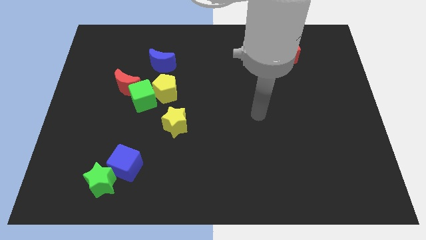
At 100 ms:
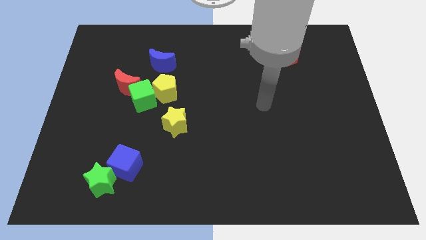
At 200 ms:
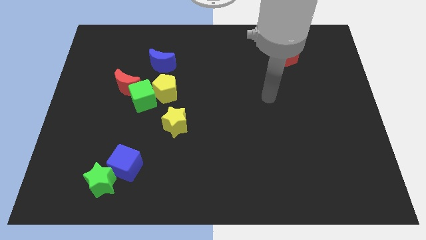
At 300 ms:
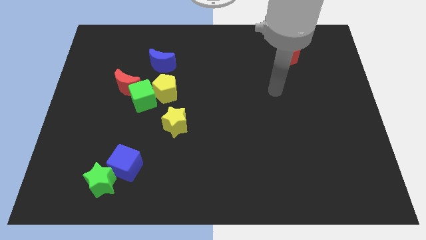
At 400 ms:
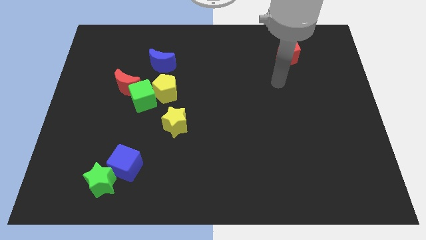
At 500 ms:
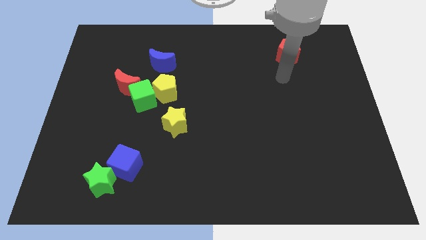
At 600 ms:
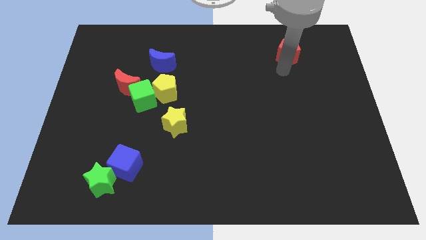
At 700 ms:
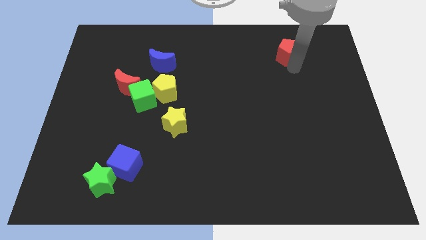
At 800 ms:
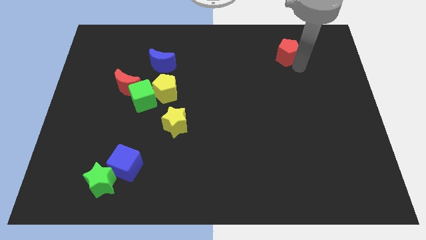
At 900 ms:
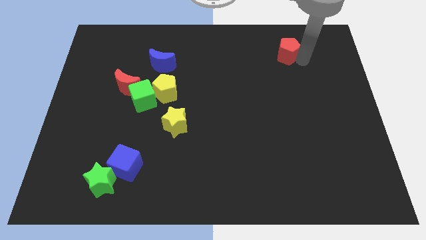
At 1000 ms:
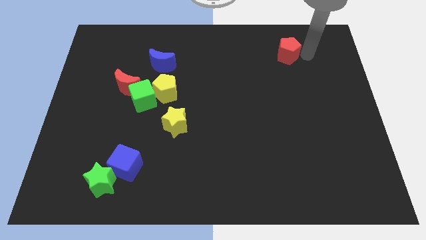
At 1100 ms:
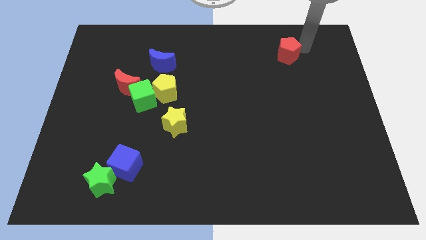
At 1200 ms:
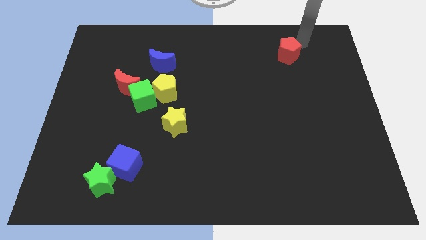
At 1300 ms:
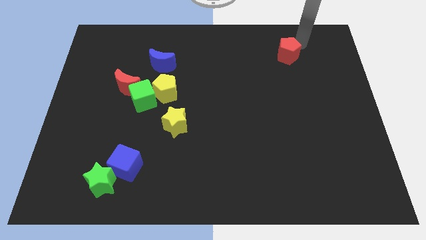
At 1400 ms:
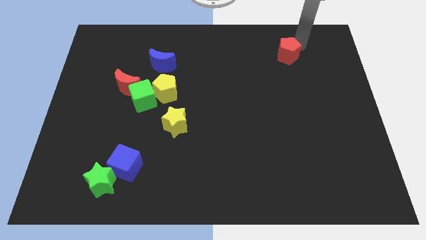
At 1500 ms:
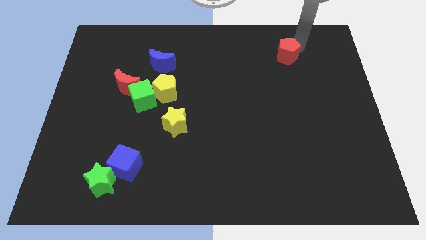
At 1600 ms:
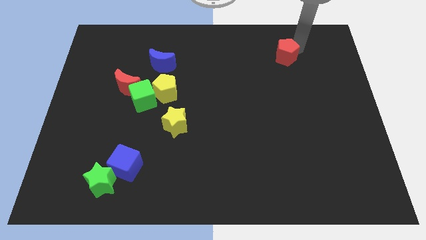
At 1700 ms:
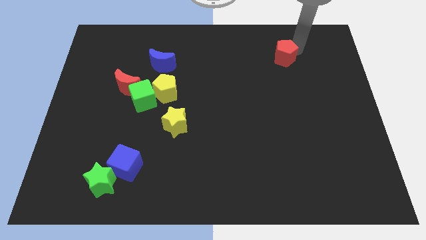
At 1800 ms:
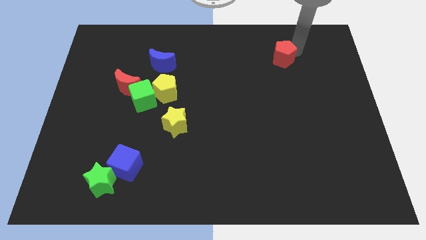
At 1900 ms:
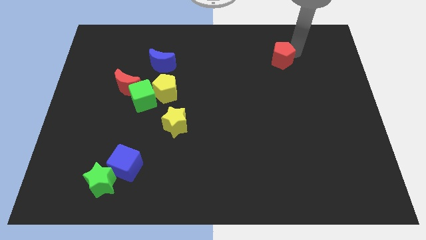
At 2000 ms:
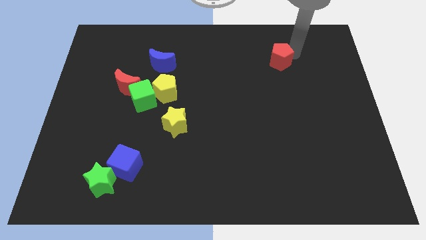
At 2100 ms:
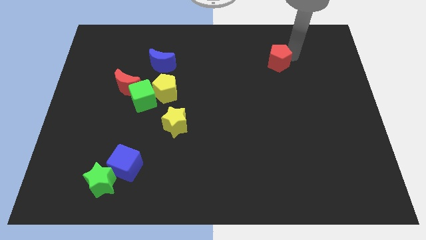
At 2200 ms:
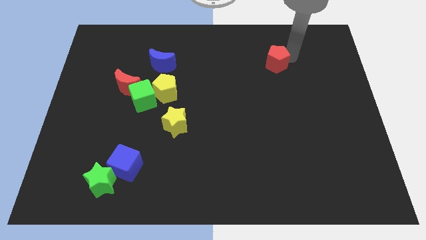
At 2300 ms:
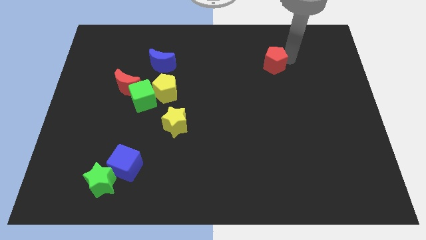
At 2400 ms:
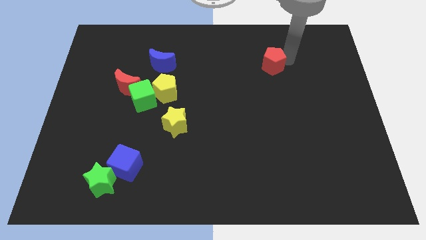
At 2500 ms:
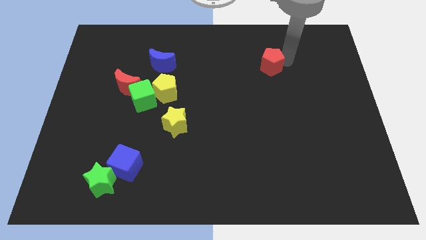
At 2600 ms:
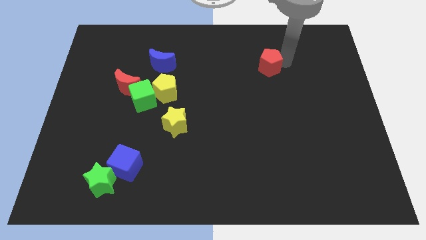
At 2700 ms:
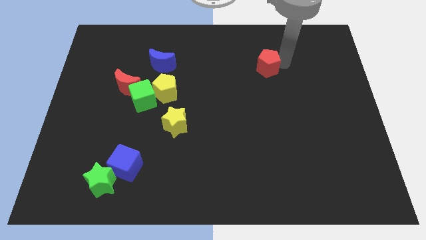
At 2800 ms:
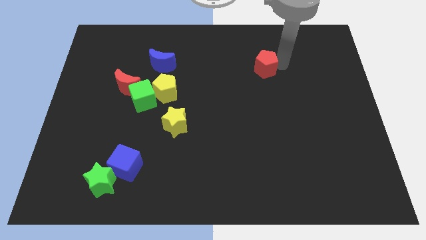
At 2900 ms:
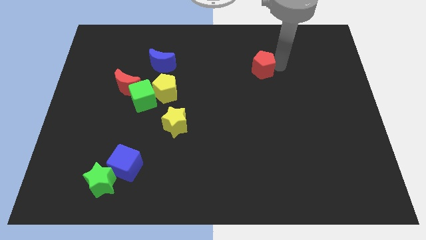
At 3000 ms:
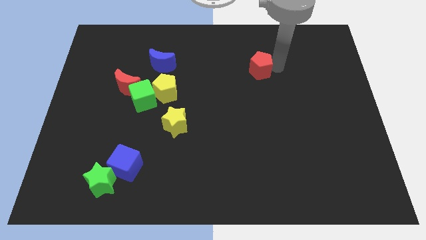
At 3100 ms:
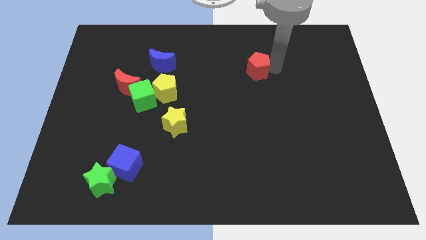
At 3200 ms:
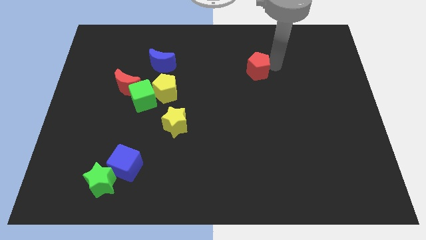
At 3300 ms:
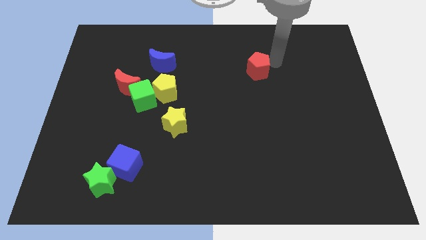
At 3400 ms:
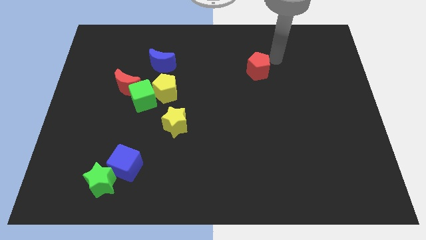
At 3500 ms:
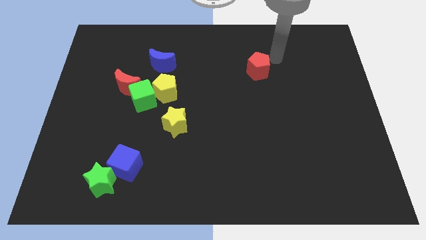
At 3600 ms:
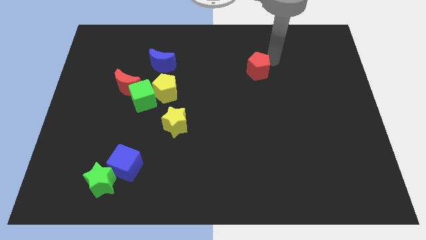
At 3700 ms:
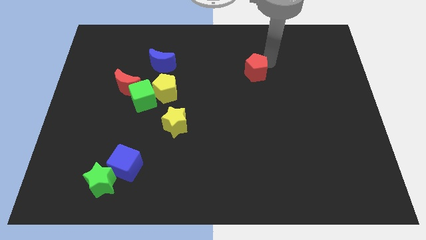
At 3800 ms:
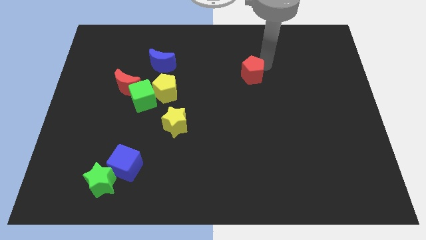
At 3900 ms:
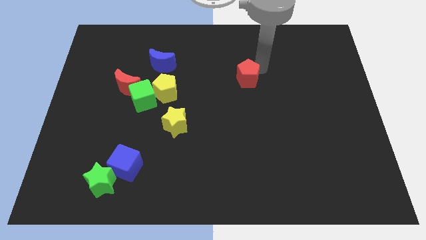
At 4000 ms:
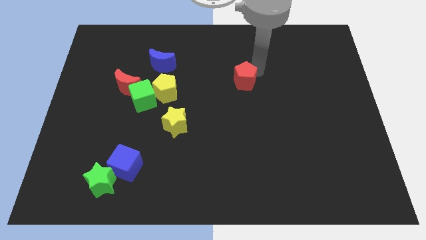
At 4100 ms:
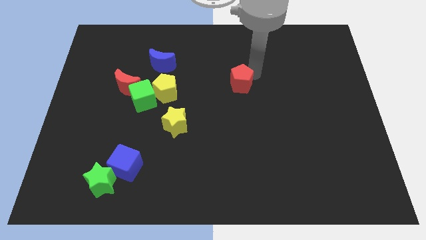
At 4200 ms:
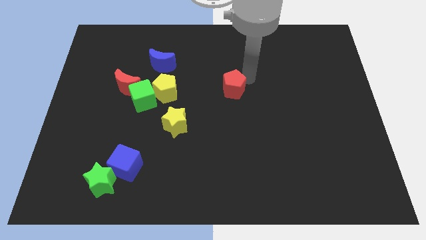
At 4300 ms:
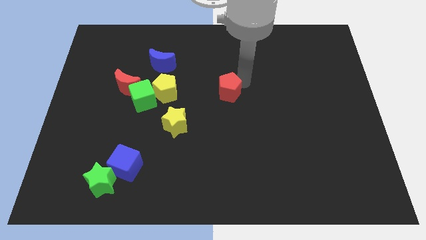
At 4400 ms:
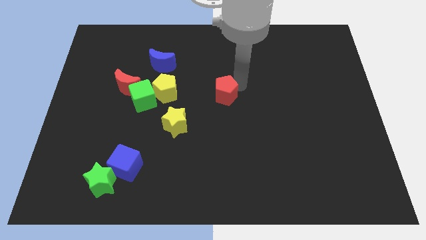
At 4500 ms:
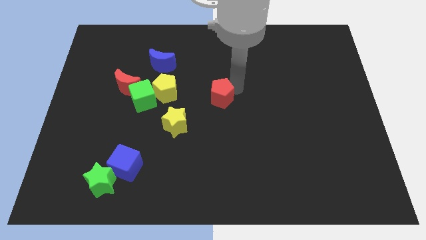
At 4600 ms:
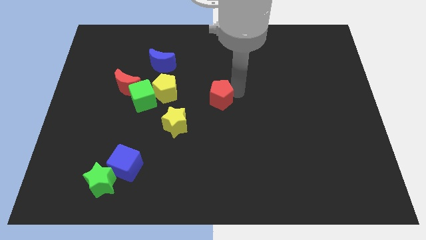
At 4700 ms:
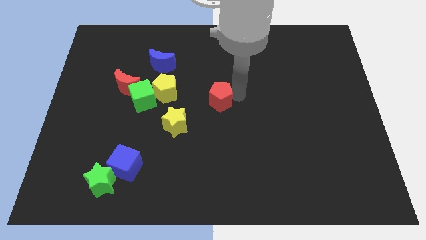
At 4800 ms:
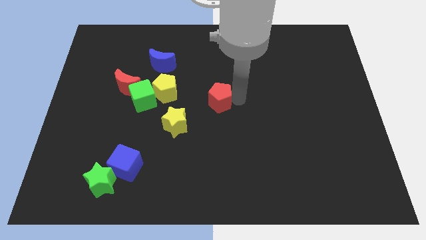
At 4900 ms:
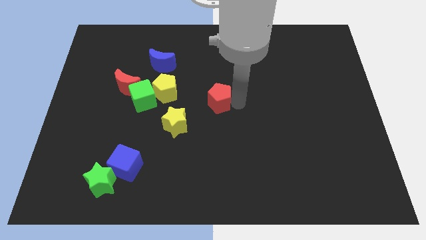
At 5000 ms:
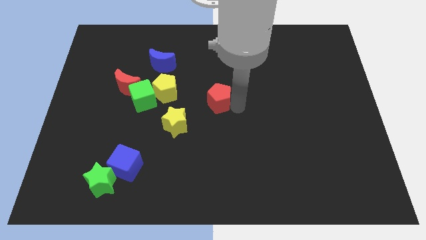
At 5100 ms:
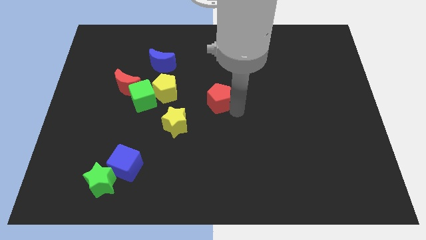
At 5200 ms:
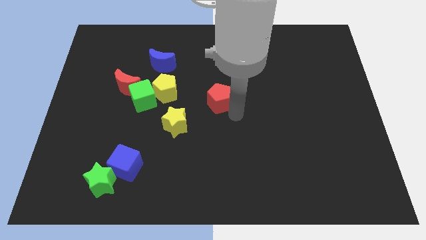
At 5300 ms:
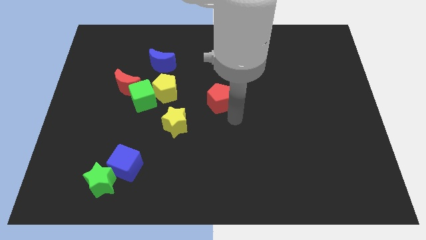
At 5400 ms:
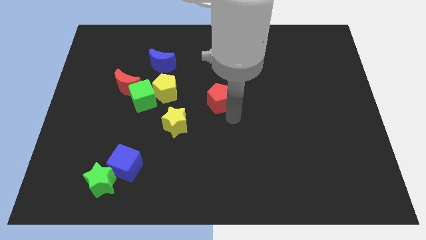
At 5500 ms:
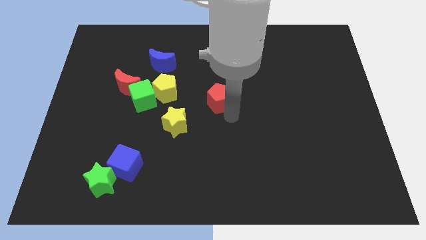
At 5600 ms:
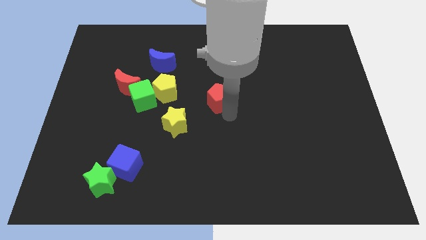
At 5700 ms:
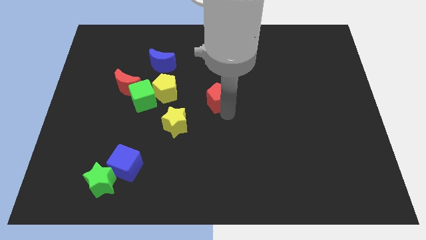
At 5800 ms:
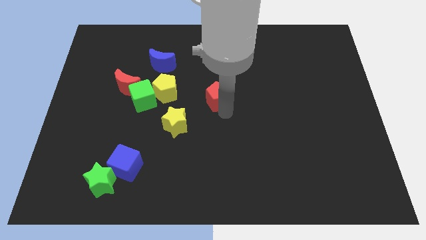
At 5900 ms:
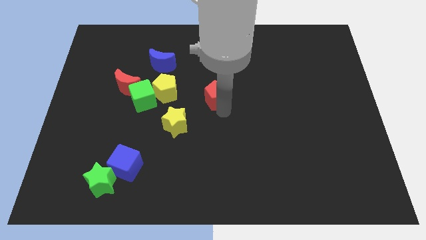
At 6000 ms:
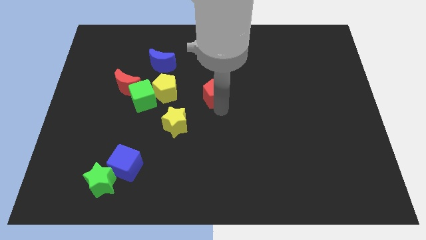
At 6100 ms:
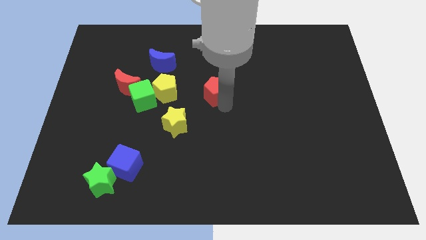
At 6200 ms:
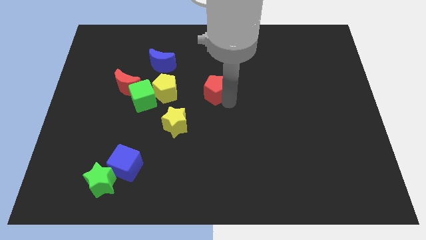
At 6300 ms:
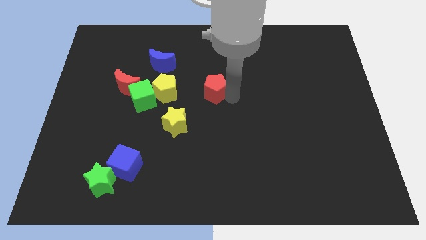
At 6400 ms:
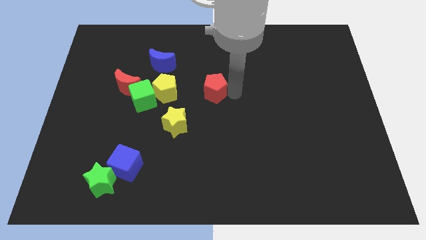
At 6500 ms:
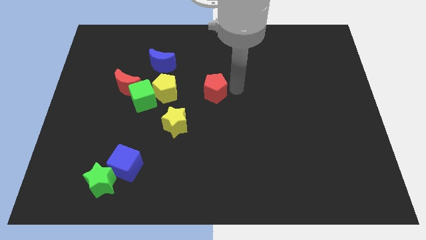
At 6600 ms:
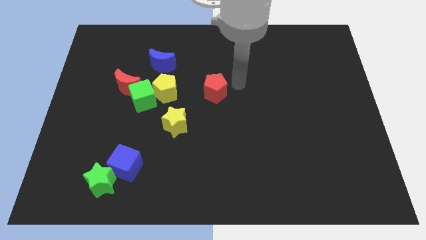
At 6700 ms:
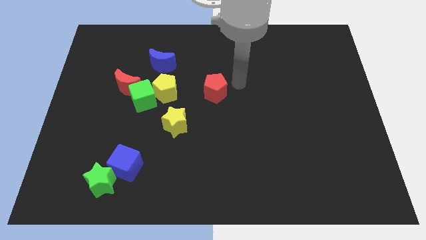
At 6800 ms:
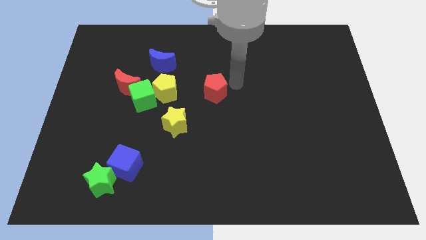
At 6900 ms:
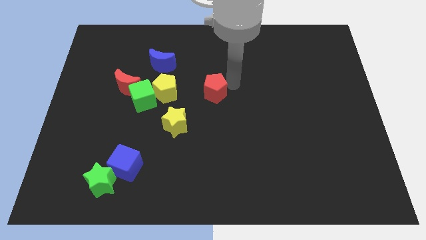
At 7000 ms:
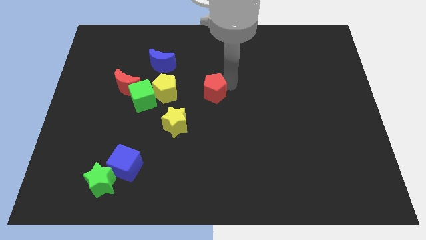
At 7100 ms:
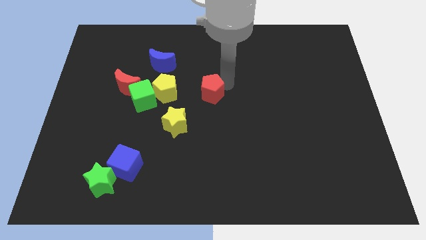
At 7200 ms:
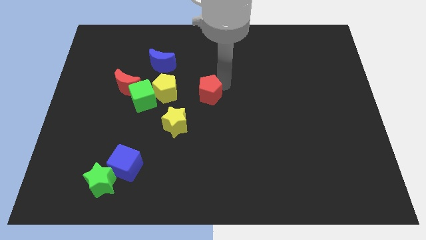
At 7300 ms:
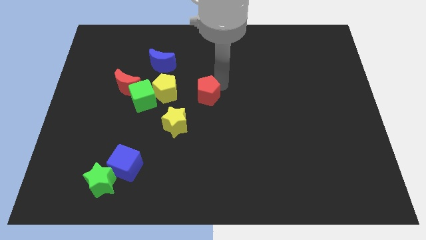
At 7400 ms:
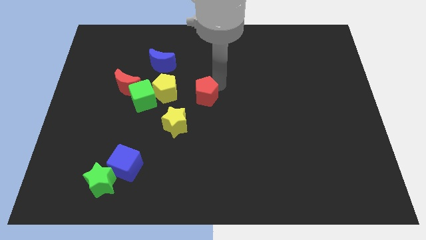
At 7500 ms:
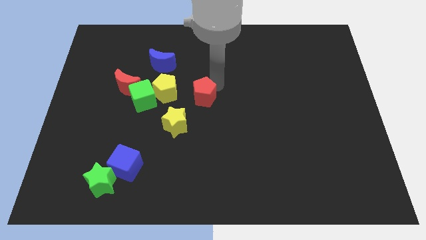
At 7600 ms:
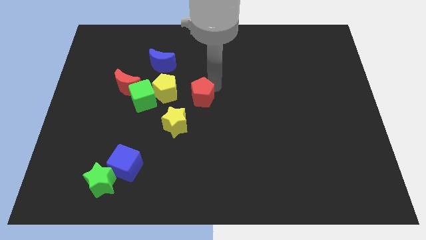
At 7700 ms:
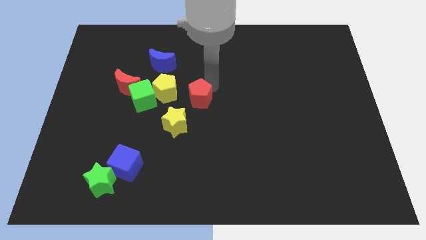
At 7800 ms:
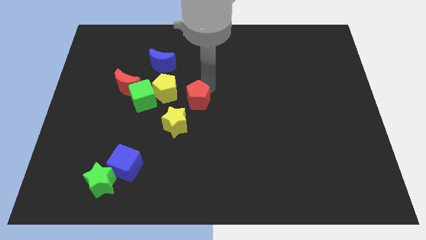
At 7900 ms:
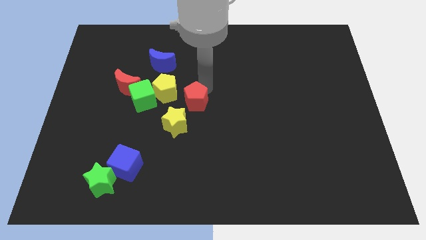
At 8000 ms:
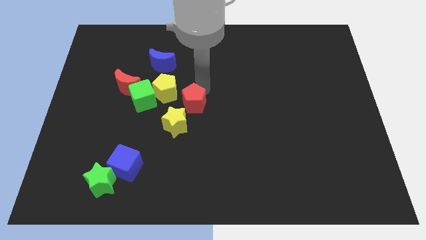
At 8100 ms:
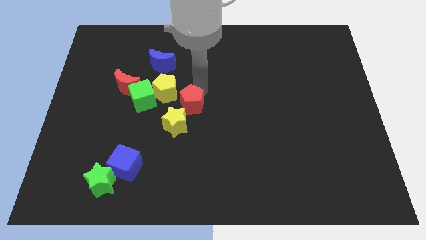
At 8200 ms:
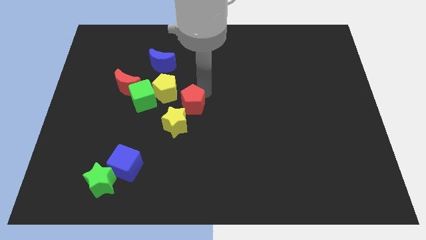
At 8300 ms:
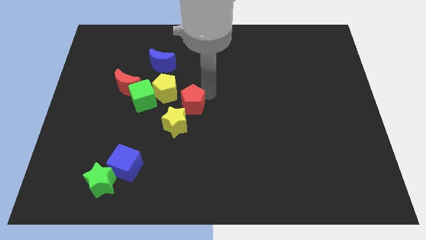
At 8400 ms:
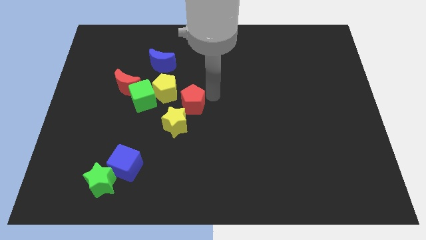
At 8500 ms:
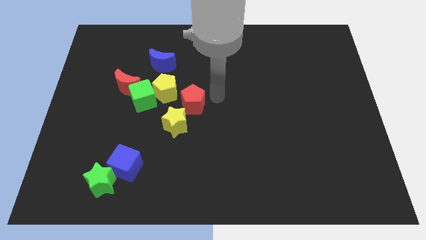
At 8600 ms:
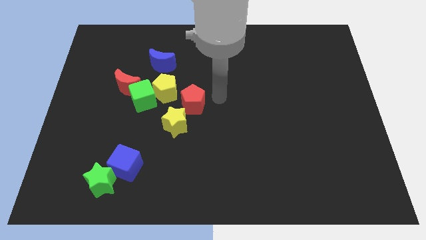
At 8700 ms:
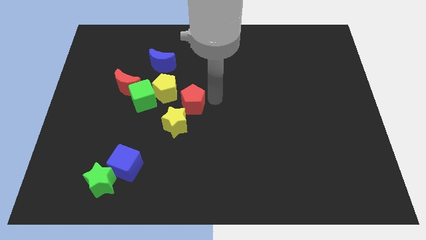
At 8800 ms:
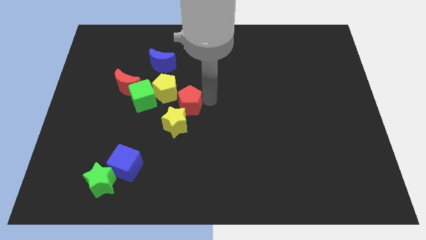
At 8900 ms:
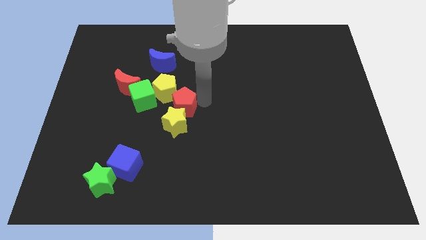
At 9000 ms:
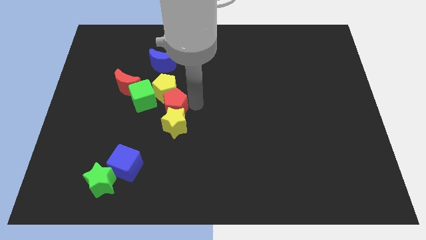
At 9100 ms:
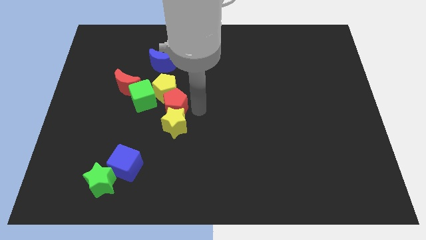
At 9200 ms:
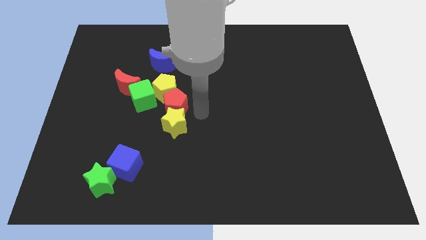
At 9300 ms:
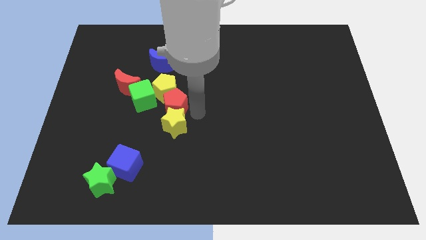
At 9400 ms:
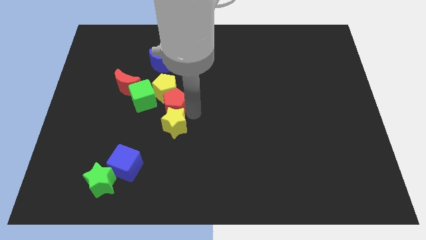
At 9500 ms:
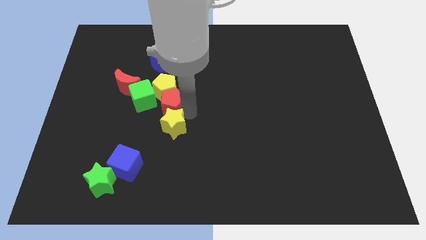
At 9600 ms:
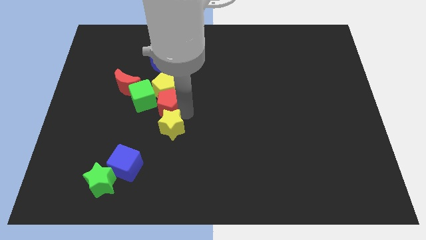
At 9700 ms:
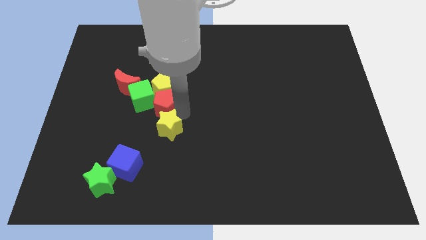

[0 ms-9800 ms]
slide the red pentagon to the green cube
